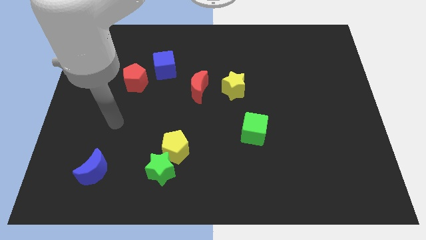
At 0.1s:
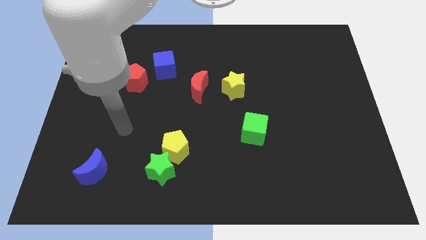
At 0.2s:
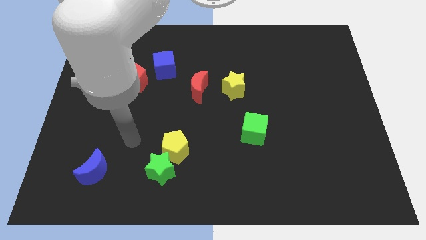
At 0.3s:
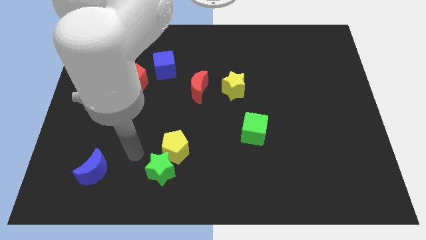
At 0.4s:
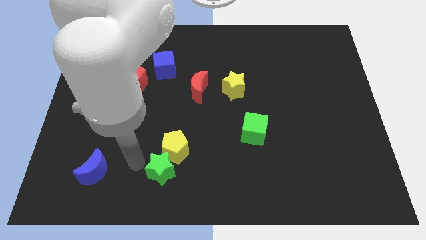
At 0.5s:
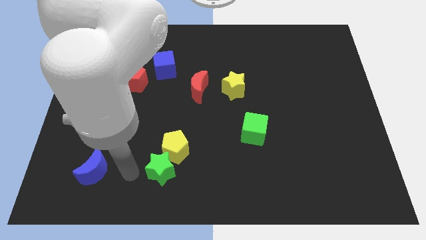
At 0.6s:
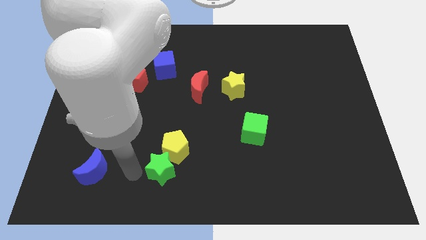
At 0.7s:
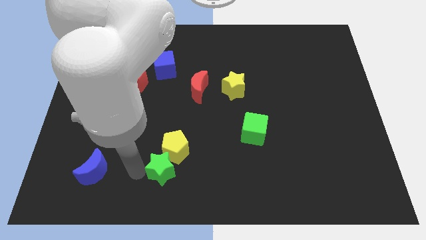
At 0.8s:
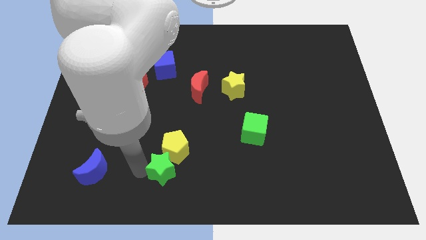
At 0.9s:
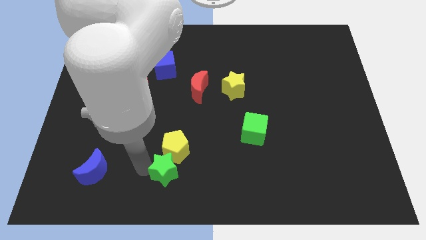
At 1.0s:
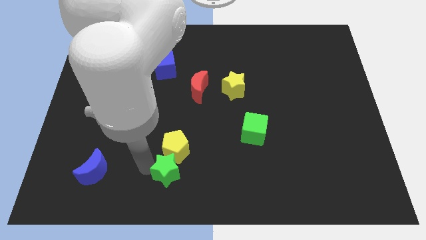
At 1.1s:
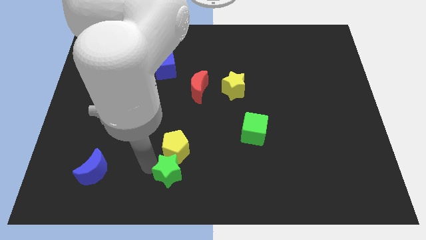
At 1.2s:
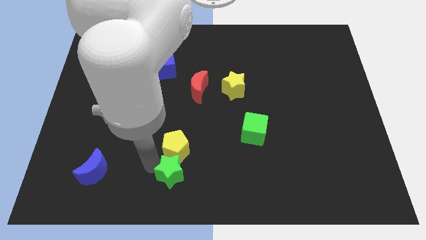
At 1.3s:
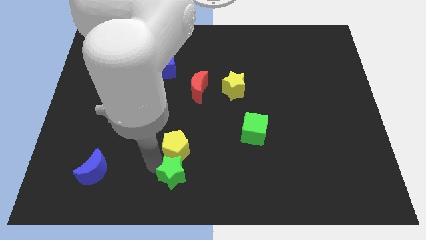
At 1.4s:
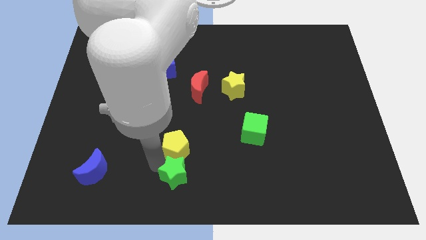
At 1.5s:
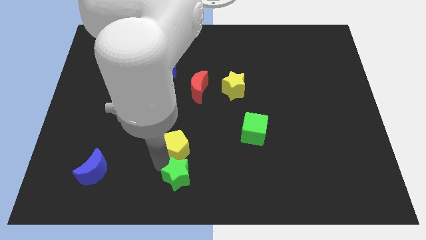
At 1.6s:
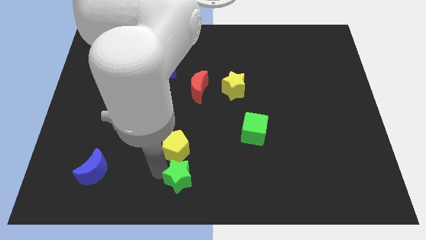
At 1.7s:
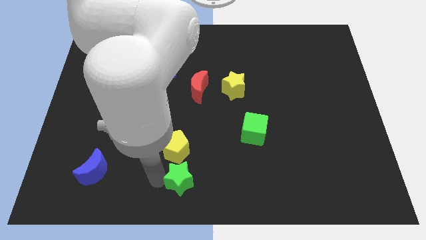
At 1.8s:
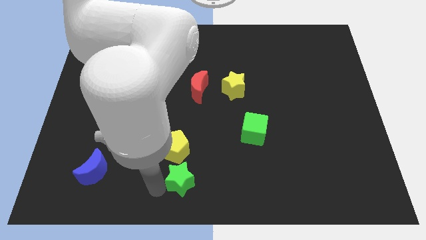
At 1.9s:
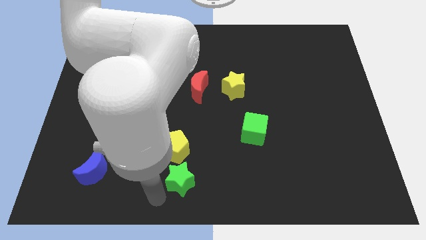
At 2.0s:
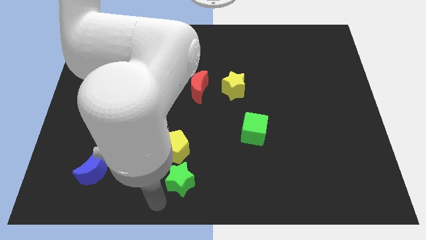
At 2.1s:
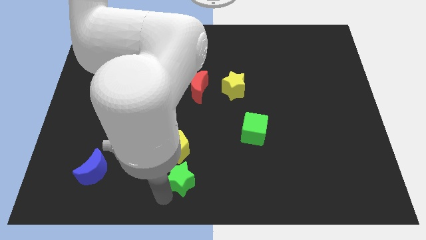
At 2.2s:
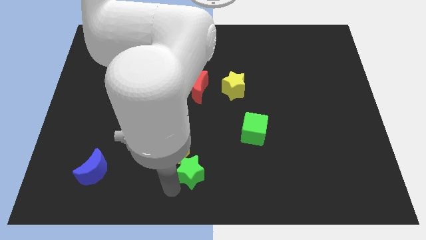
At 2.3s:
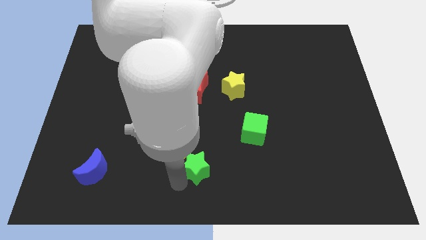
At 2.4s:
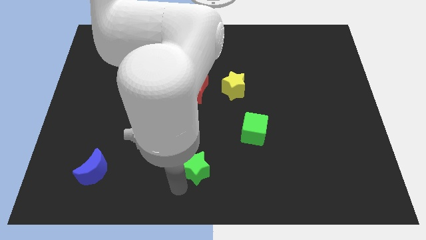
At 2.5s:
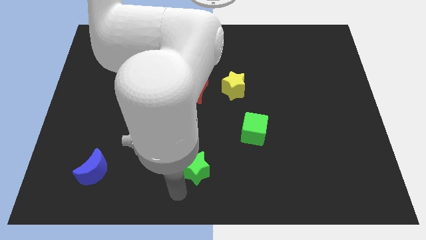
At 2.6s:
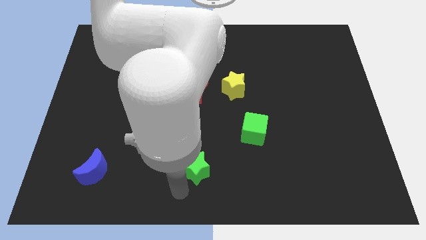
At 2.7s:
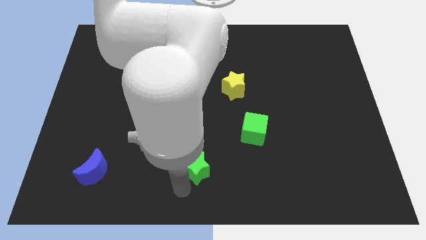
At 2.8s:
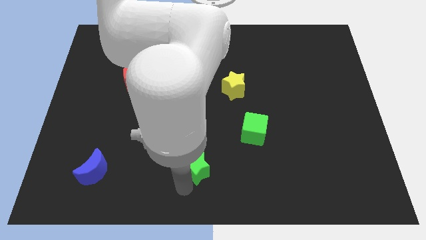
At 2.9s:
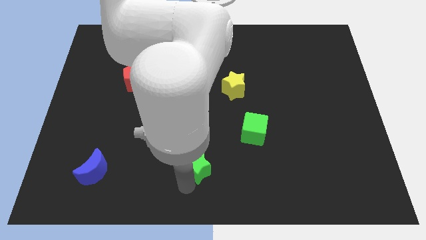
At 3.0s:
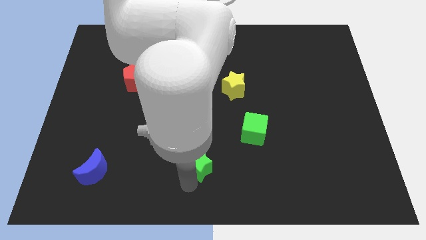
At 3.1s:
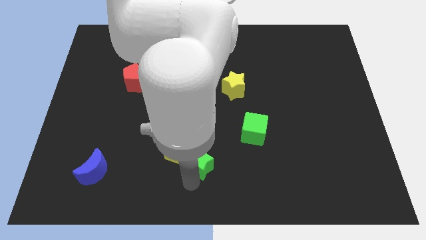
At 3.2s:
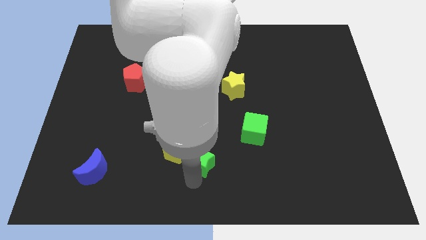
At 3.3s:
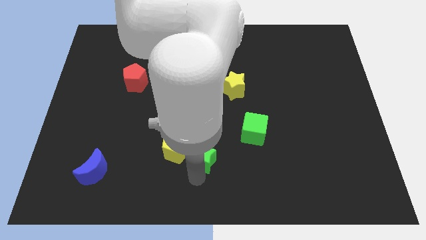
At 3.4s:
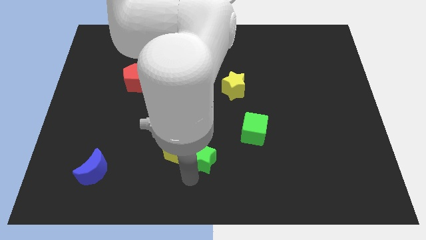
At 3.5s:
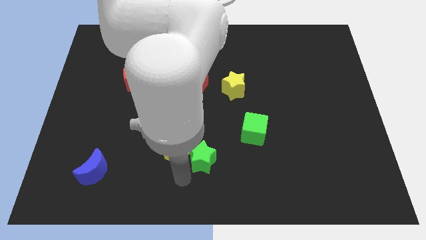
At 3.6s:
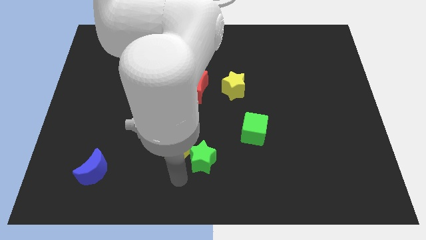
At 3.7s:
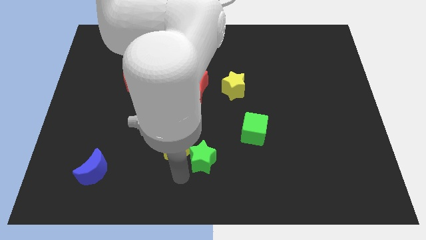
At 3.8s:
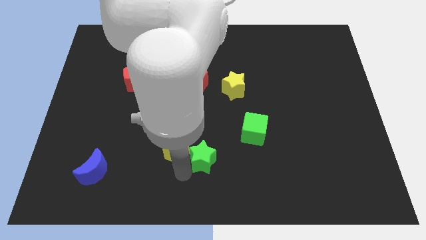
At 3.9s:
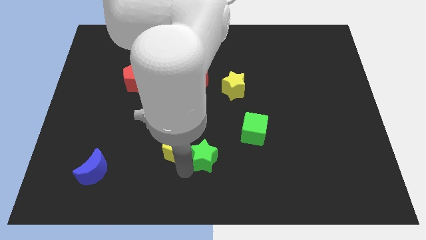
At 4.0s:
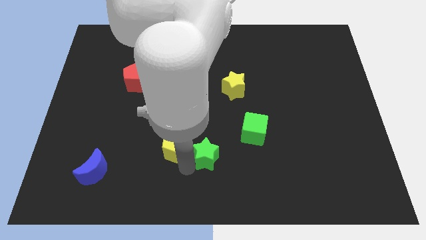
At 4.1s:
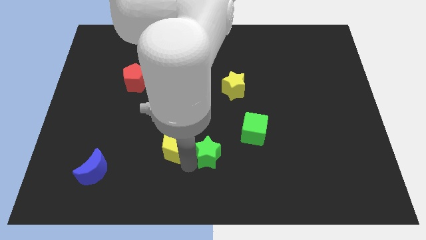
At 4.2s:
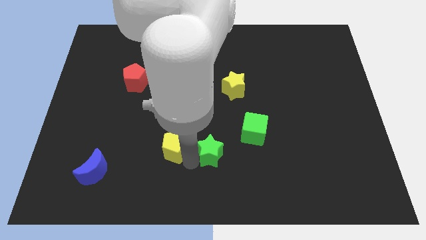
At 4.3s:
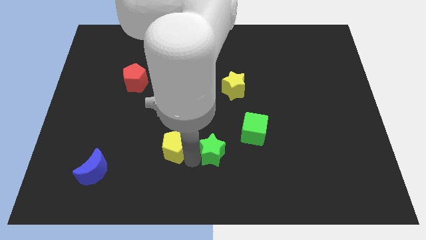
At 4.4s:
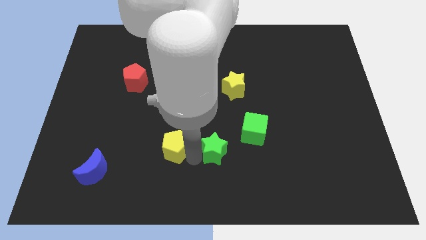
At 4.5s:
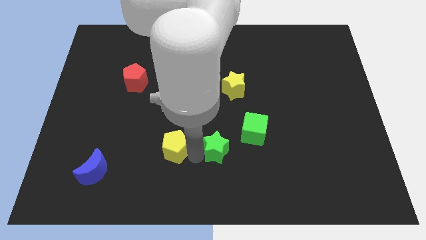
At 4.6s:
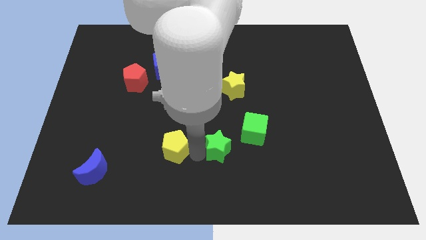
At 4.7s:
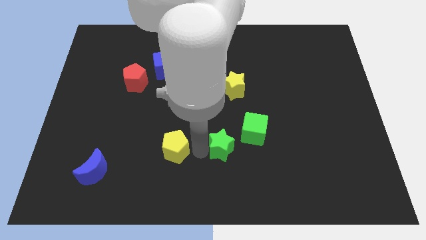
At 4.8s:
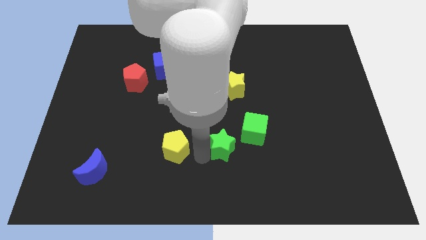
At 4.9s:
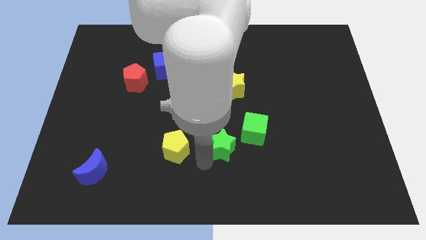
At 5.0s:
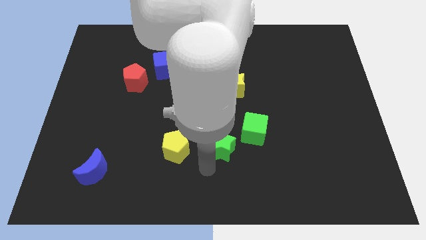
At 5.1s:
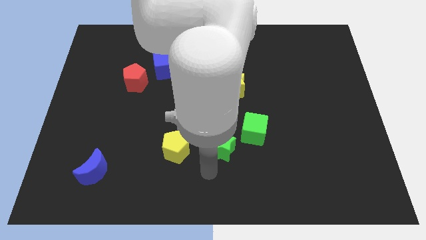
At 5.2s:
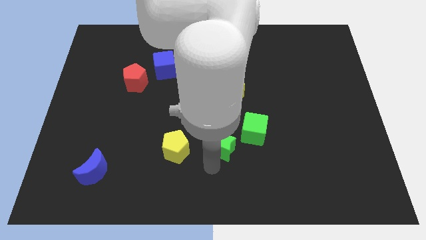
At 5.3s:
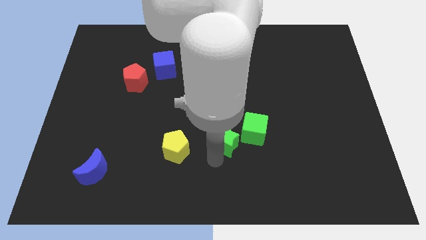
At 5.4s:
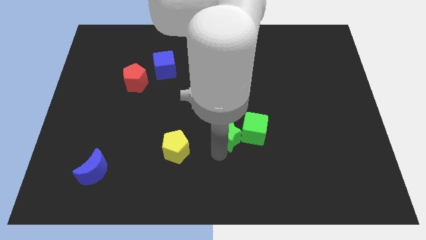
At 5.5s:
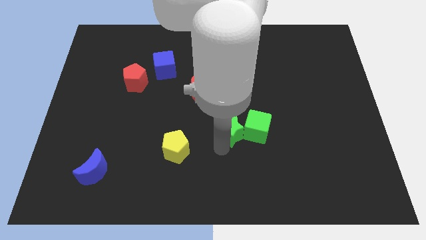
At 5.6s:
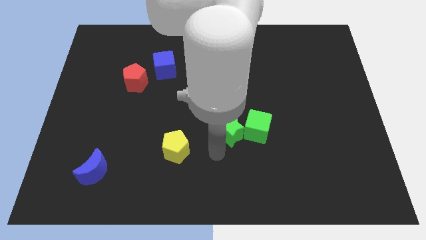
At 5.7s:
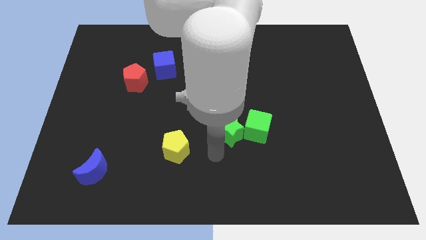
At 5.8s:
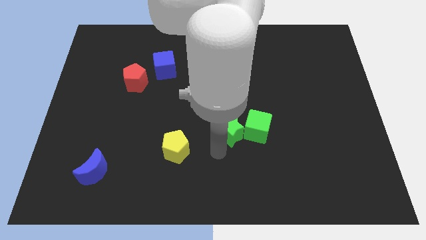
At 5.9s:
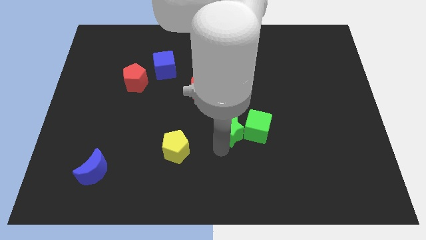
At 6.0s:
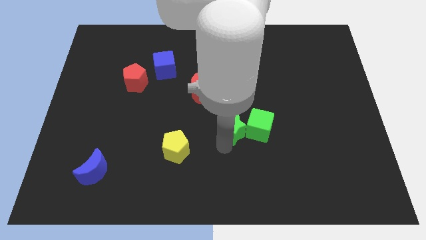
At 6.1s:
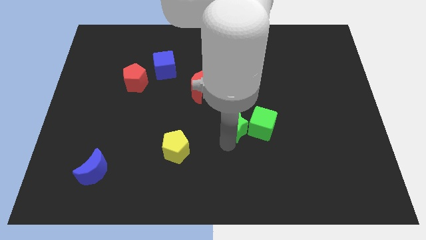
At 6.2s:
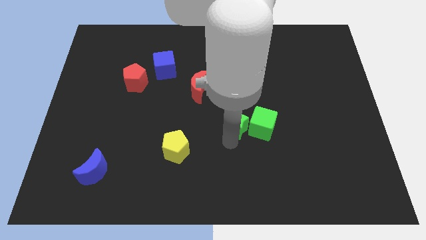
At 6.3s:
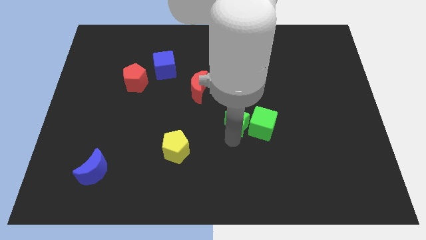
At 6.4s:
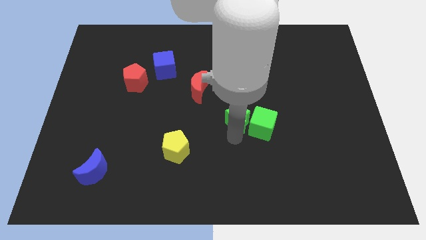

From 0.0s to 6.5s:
push the green star diagonally up and right

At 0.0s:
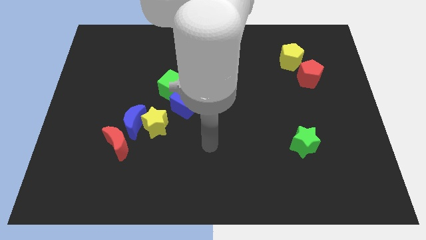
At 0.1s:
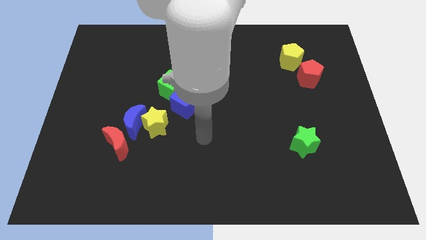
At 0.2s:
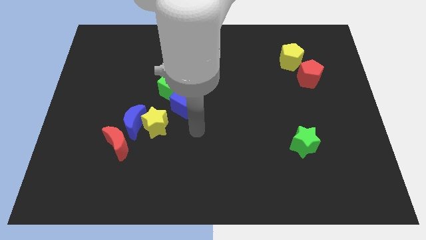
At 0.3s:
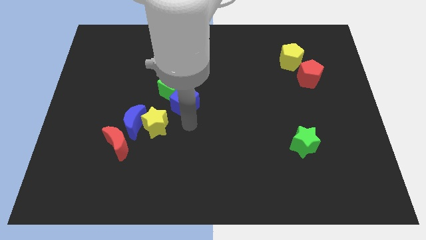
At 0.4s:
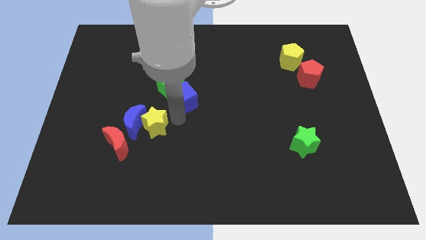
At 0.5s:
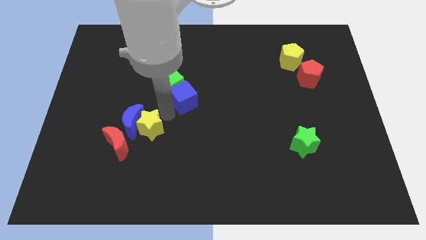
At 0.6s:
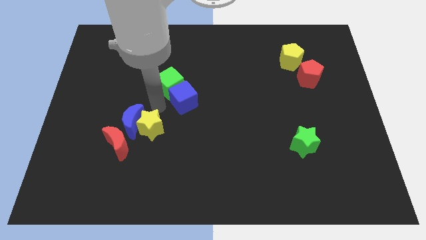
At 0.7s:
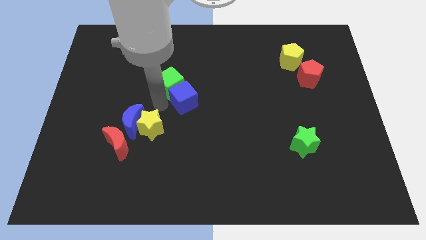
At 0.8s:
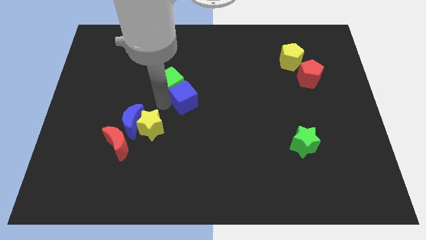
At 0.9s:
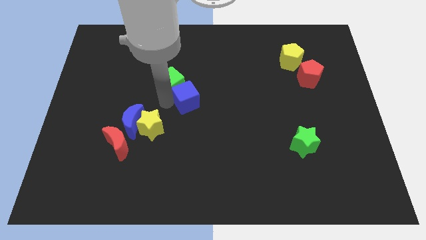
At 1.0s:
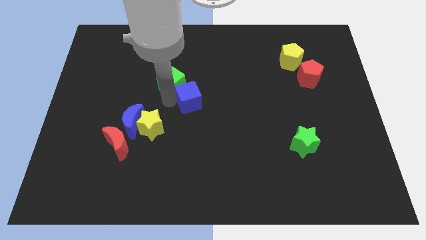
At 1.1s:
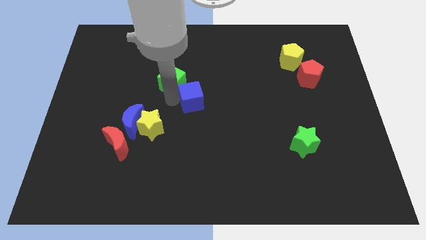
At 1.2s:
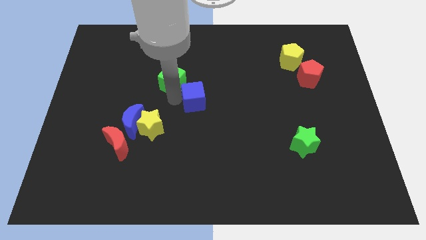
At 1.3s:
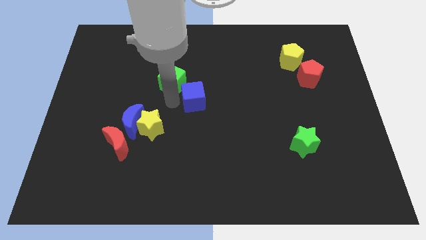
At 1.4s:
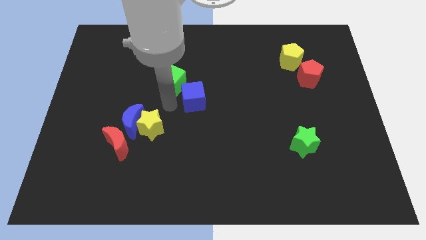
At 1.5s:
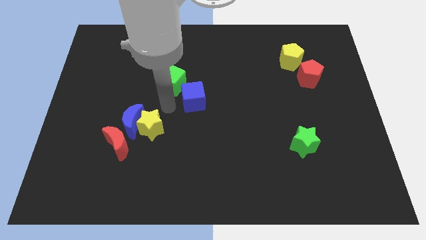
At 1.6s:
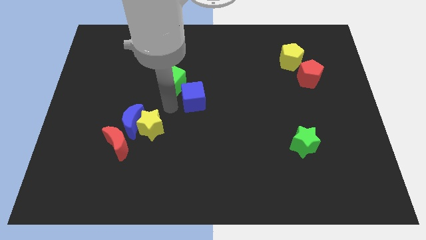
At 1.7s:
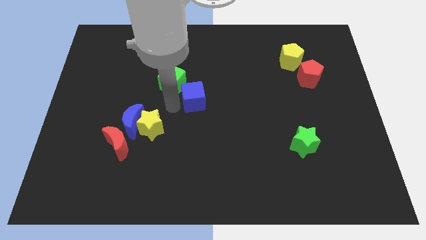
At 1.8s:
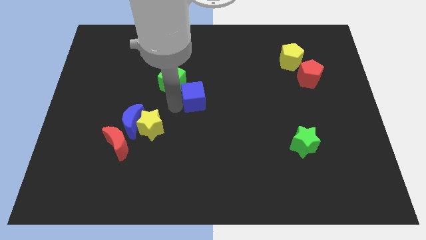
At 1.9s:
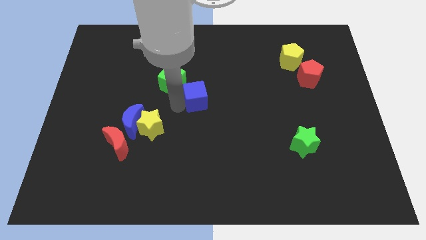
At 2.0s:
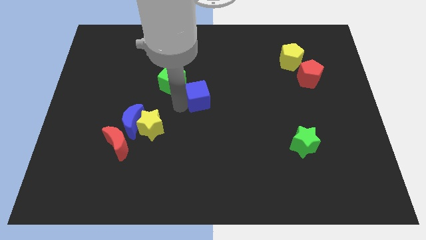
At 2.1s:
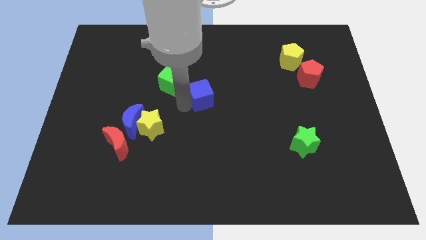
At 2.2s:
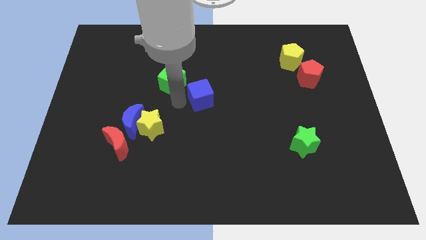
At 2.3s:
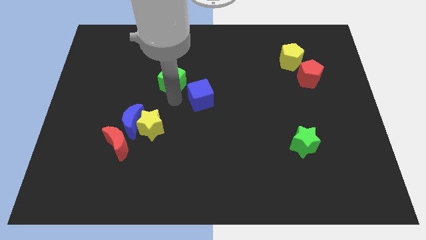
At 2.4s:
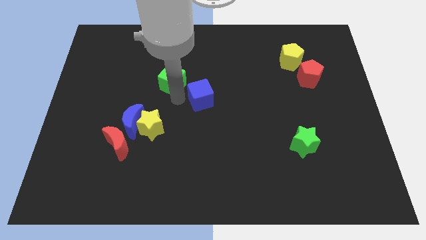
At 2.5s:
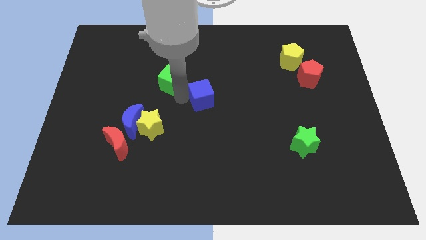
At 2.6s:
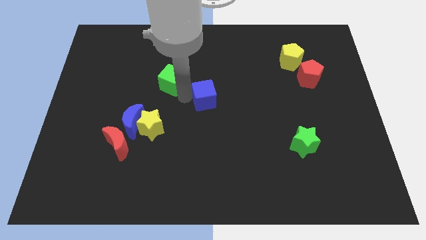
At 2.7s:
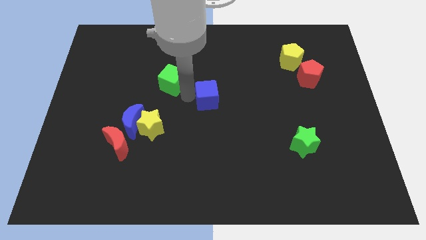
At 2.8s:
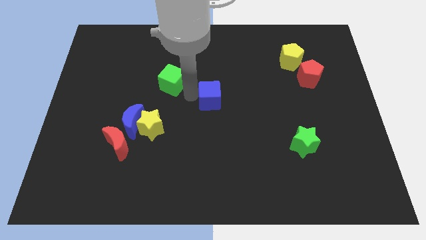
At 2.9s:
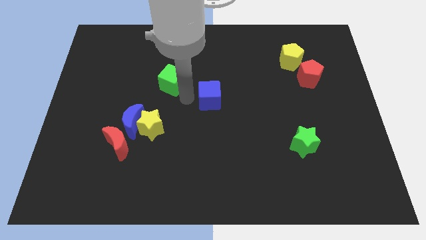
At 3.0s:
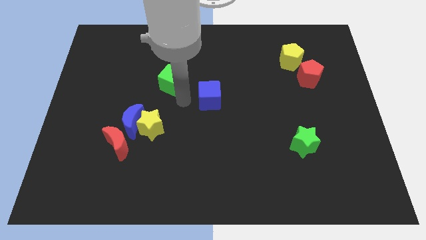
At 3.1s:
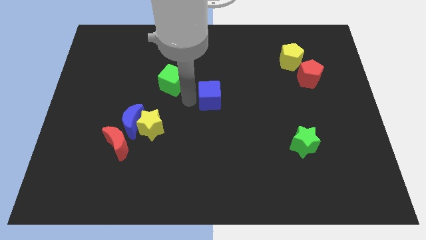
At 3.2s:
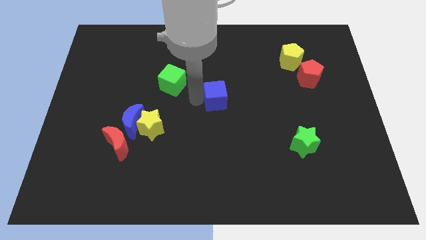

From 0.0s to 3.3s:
slightly push the blue cube to the right
